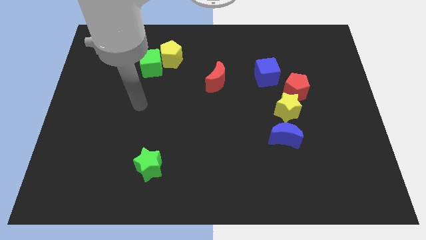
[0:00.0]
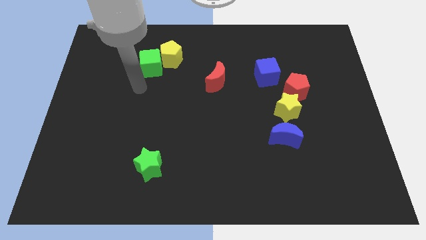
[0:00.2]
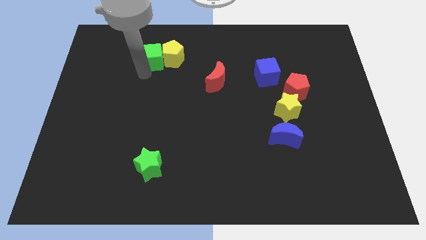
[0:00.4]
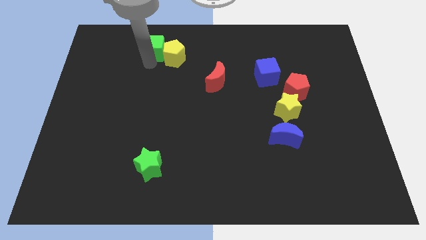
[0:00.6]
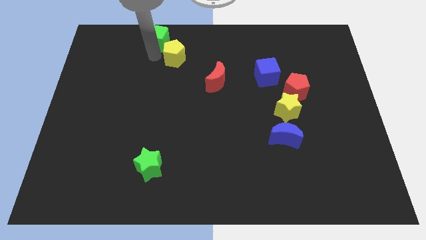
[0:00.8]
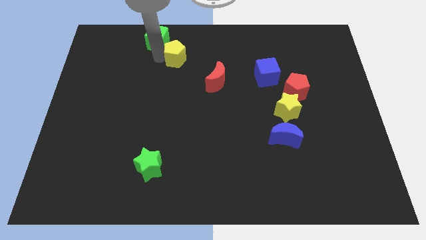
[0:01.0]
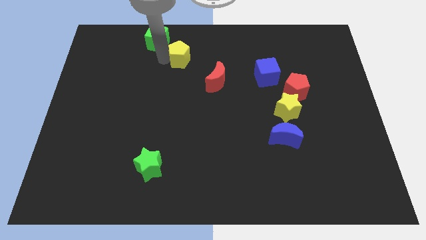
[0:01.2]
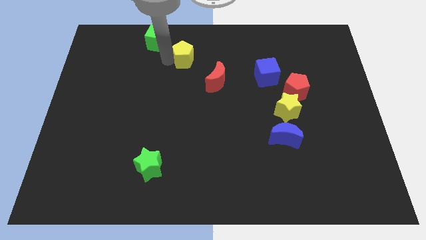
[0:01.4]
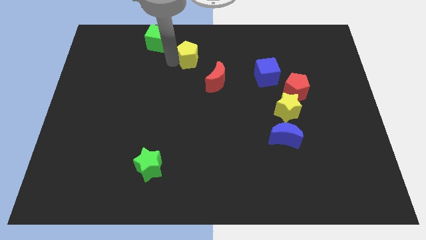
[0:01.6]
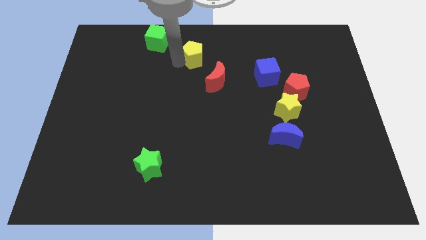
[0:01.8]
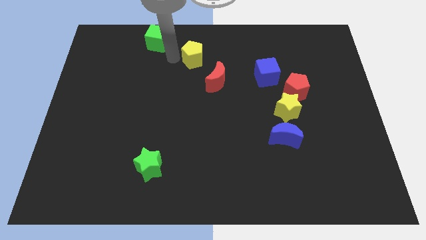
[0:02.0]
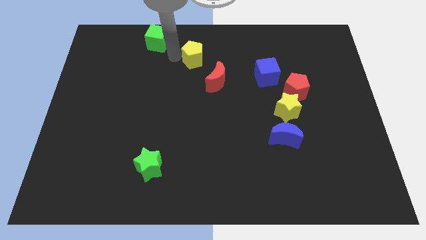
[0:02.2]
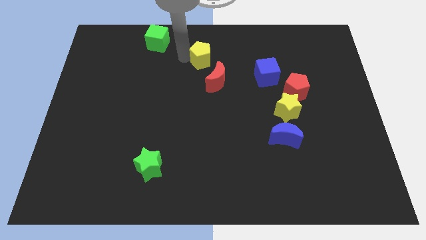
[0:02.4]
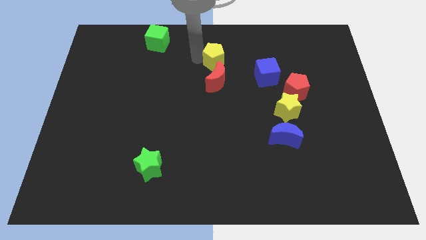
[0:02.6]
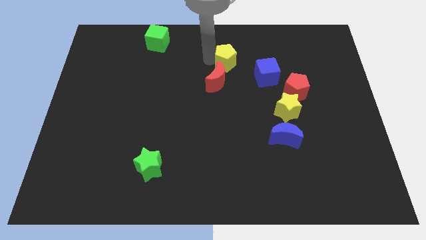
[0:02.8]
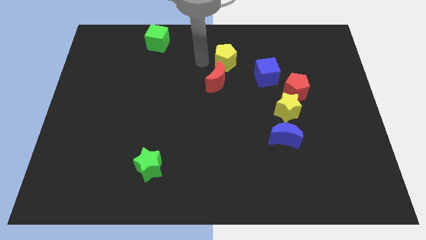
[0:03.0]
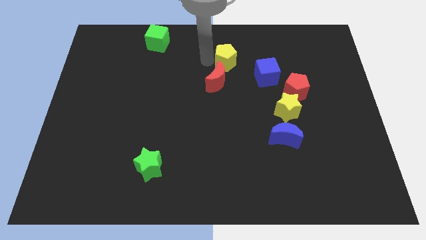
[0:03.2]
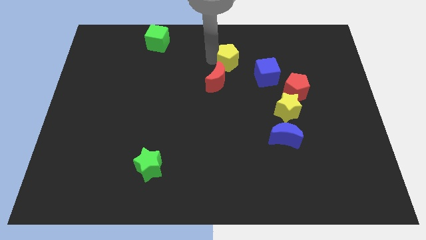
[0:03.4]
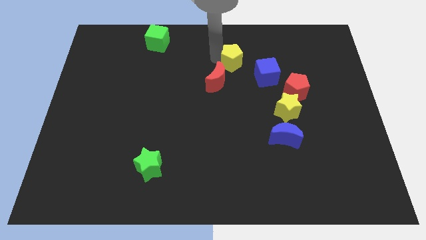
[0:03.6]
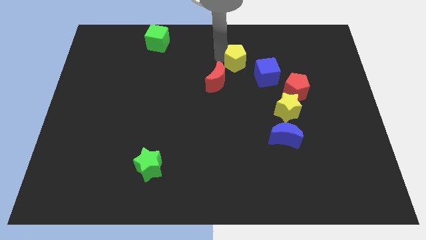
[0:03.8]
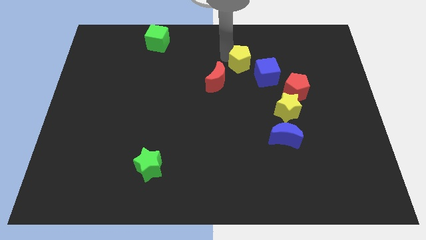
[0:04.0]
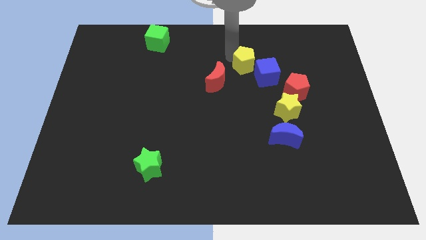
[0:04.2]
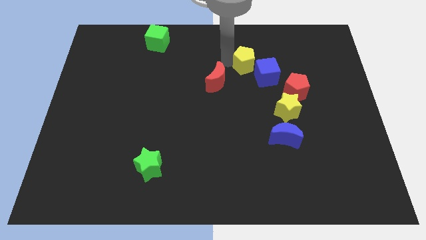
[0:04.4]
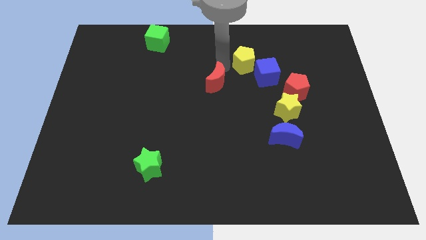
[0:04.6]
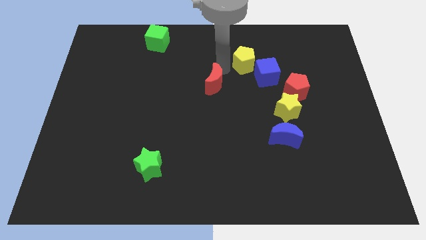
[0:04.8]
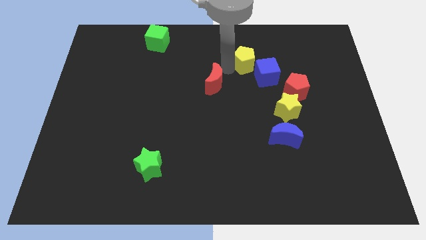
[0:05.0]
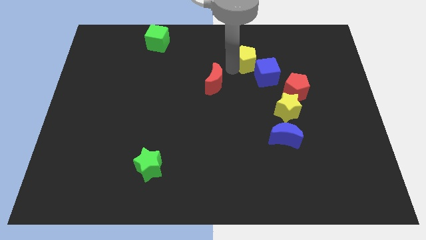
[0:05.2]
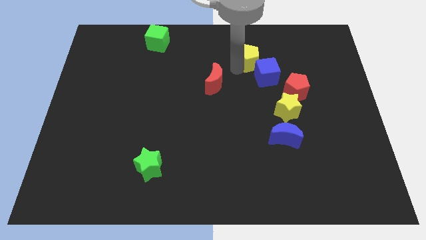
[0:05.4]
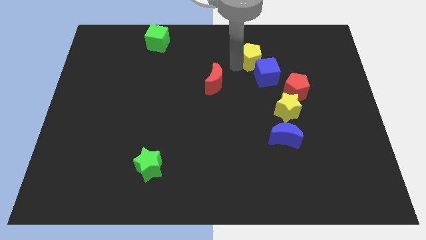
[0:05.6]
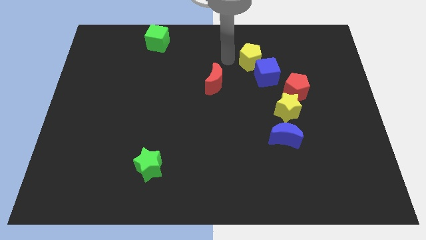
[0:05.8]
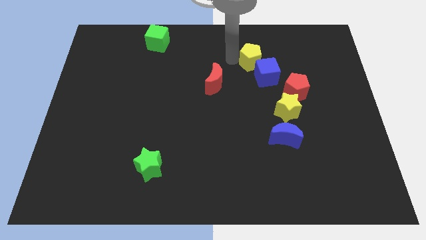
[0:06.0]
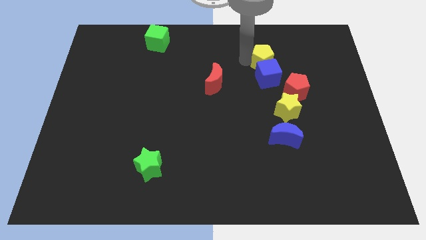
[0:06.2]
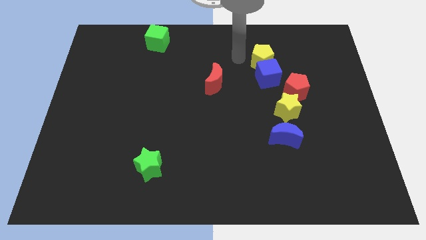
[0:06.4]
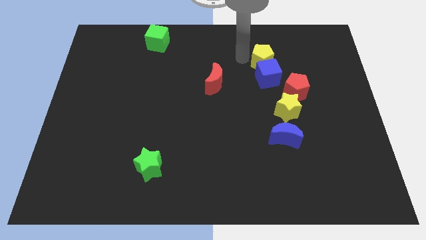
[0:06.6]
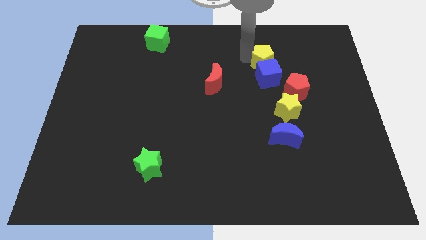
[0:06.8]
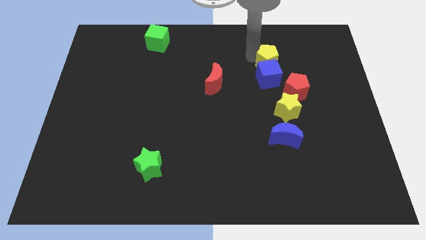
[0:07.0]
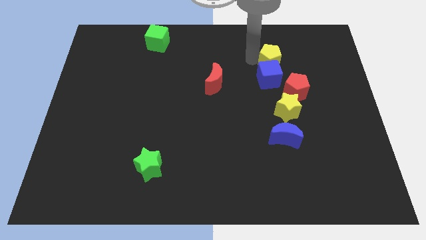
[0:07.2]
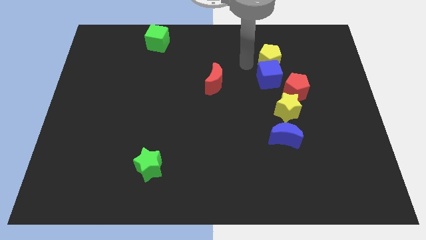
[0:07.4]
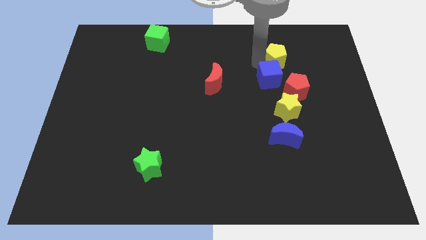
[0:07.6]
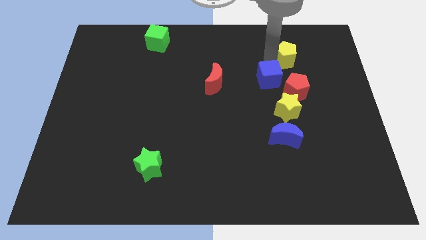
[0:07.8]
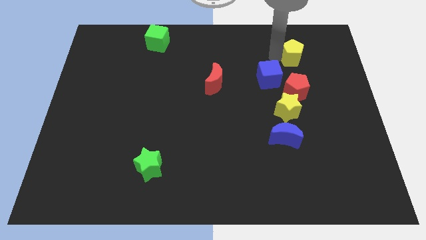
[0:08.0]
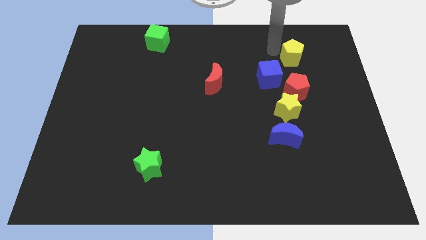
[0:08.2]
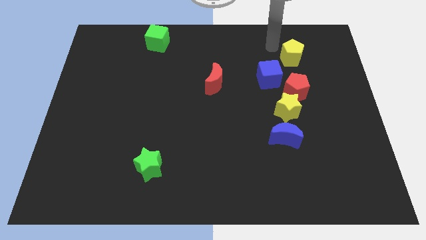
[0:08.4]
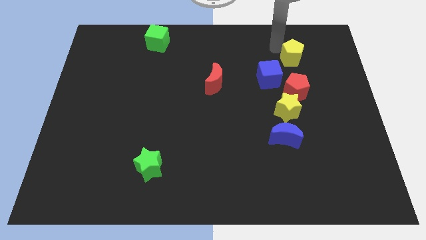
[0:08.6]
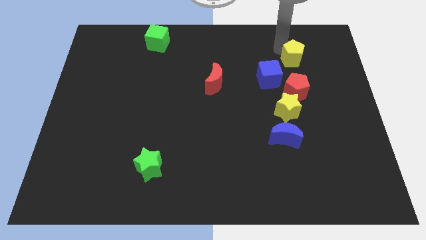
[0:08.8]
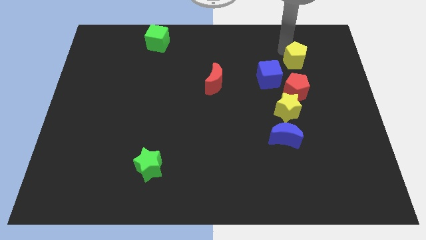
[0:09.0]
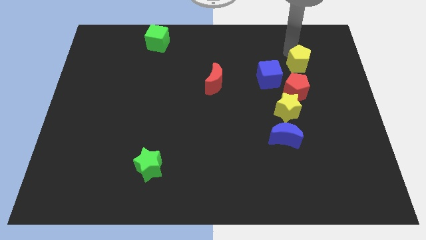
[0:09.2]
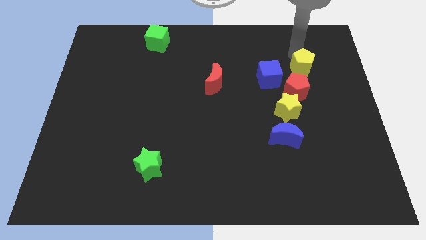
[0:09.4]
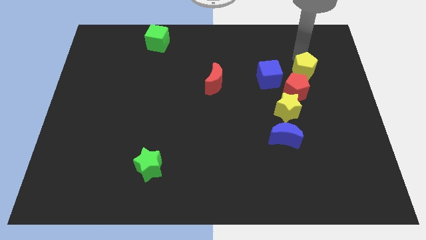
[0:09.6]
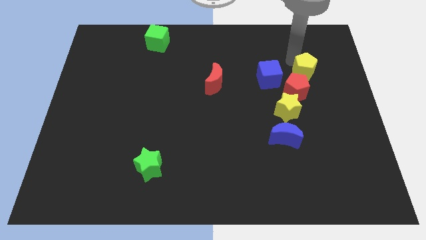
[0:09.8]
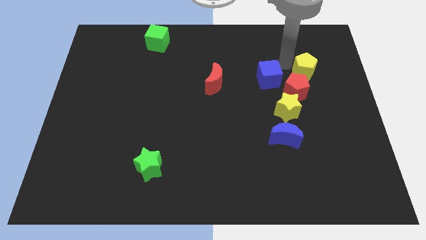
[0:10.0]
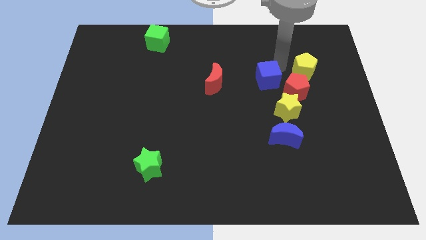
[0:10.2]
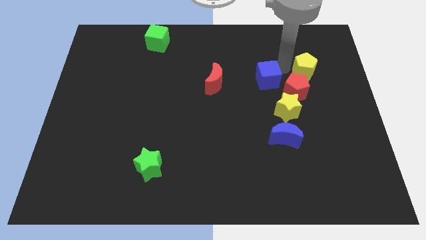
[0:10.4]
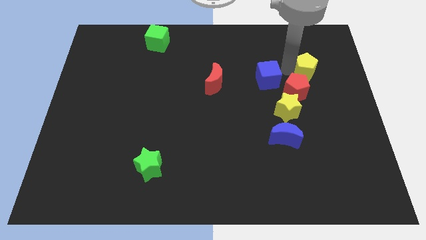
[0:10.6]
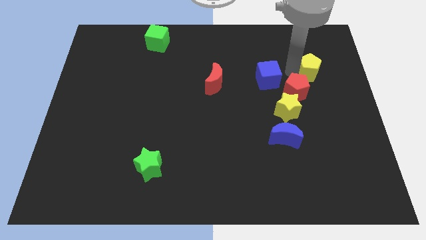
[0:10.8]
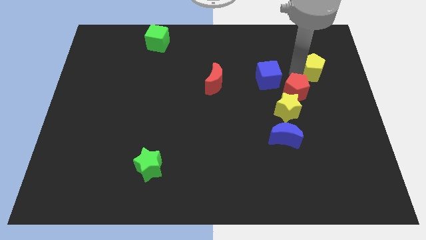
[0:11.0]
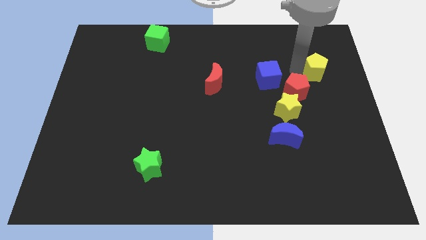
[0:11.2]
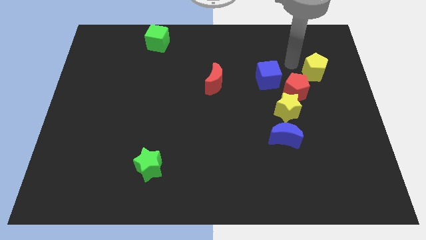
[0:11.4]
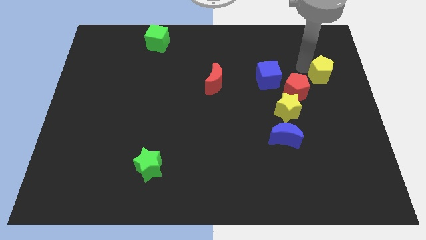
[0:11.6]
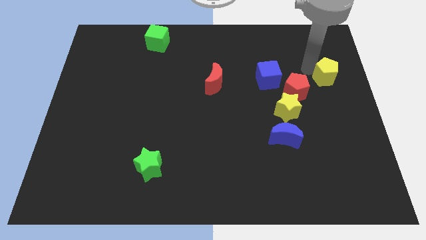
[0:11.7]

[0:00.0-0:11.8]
move the yellow pentagon to the right side of the board

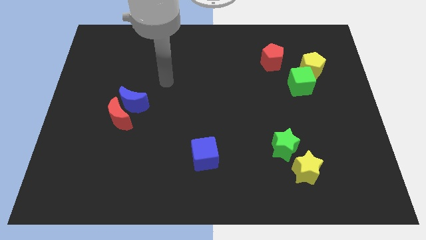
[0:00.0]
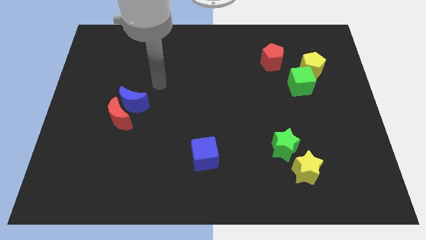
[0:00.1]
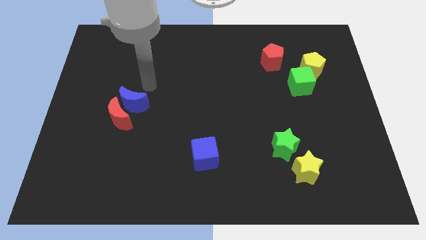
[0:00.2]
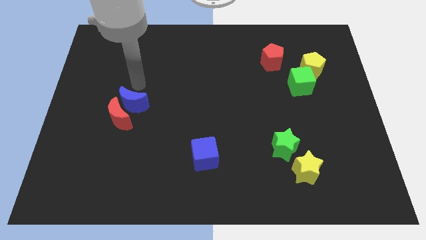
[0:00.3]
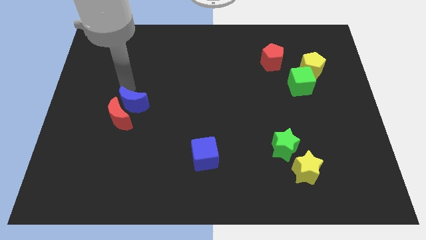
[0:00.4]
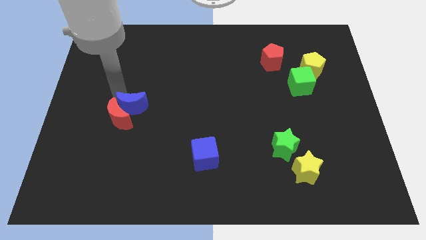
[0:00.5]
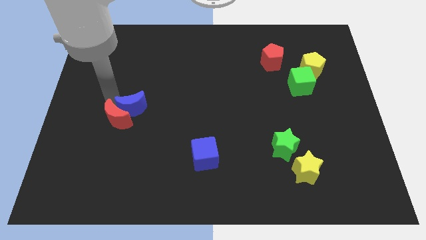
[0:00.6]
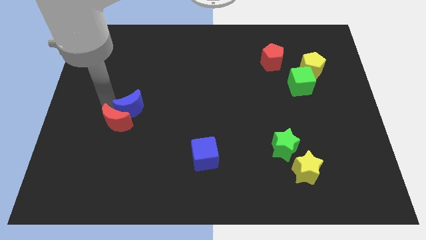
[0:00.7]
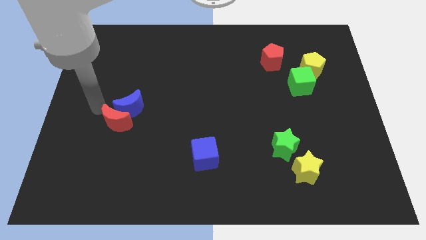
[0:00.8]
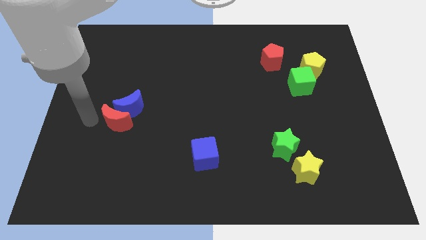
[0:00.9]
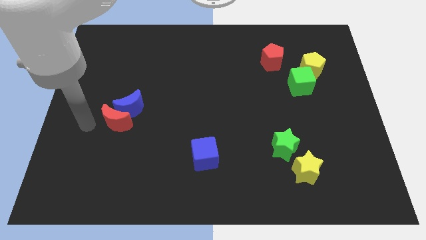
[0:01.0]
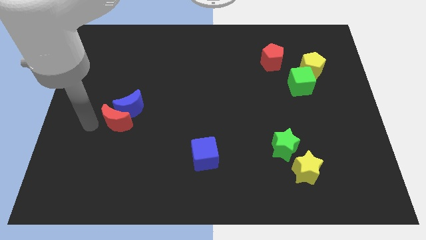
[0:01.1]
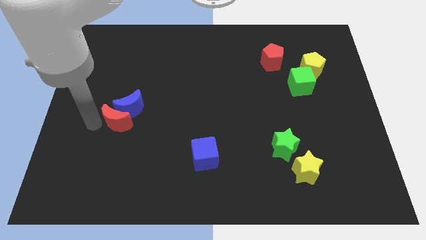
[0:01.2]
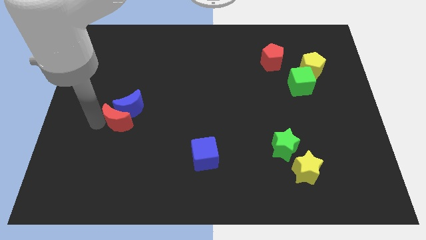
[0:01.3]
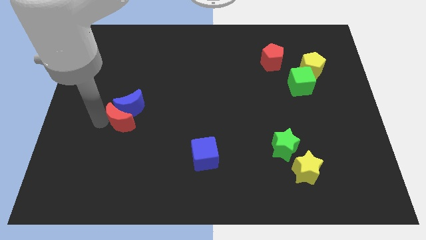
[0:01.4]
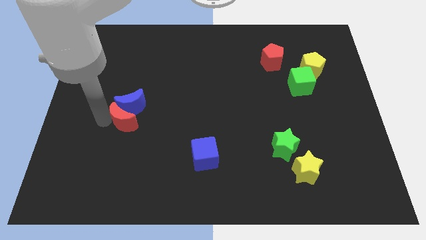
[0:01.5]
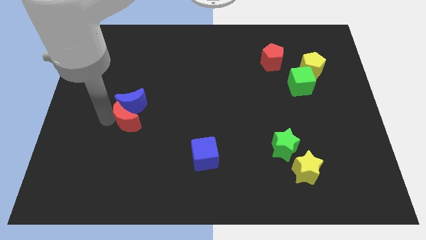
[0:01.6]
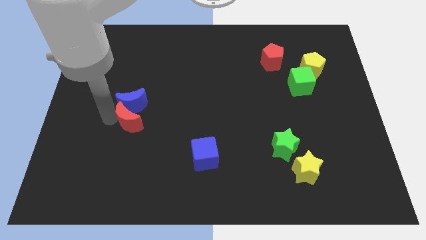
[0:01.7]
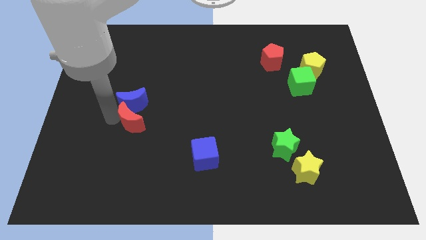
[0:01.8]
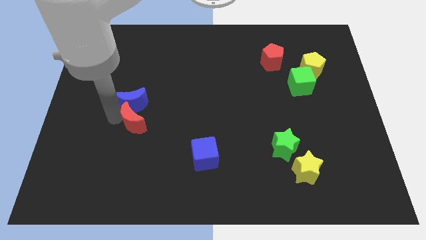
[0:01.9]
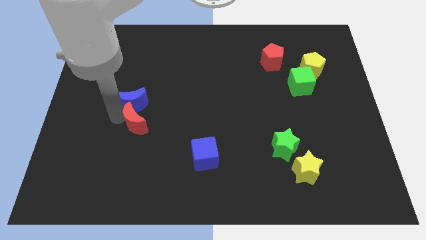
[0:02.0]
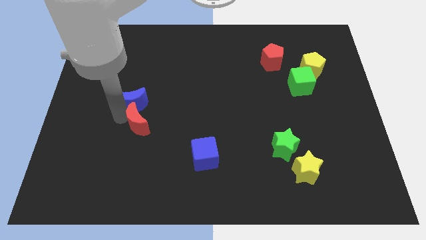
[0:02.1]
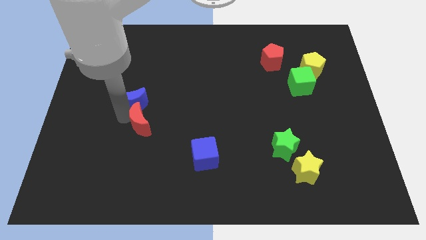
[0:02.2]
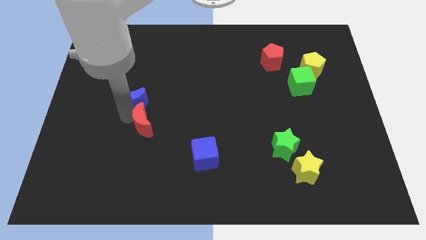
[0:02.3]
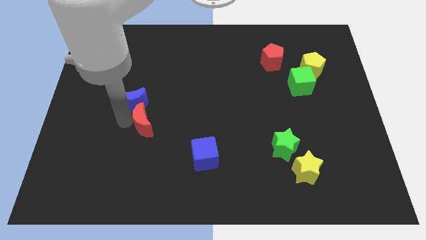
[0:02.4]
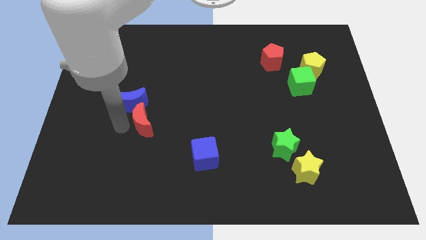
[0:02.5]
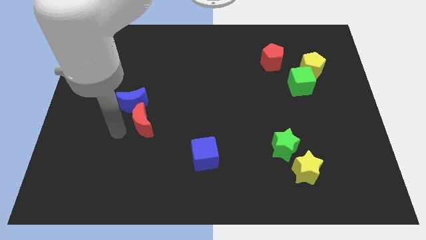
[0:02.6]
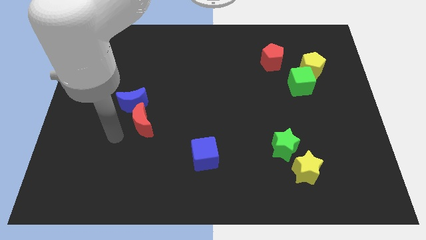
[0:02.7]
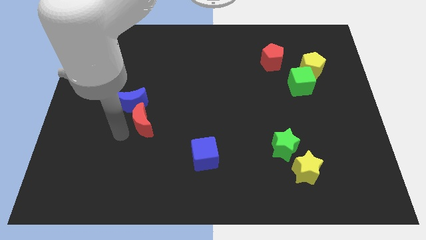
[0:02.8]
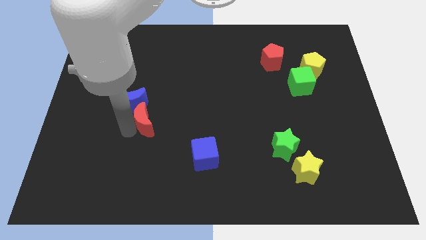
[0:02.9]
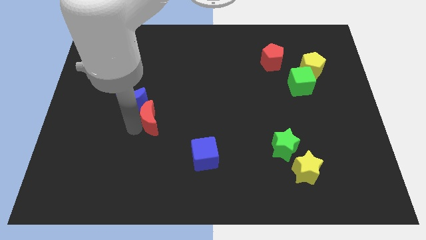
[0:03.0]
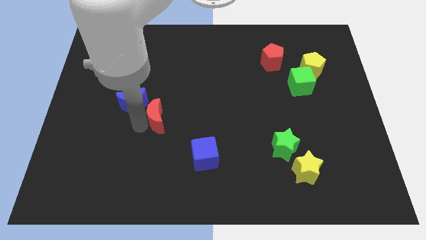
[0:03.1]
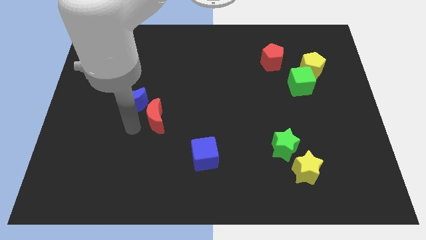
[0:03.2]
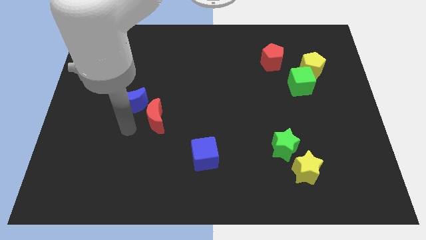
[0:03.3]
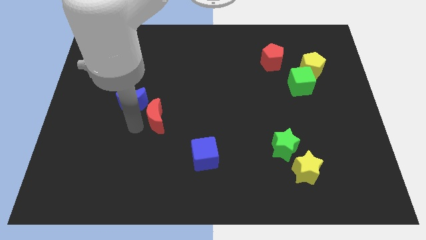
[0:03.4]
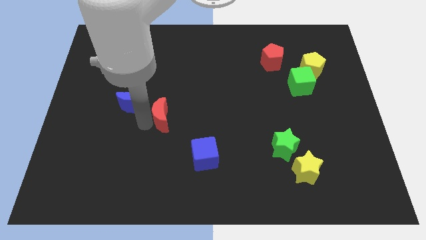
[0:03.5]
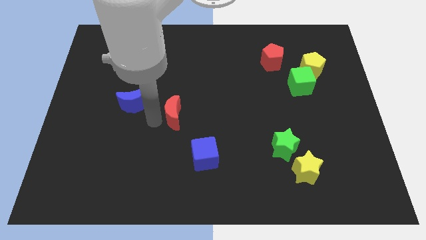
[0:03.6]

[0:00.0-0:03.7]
put the red moon to the middle
